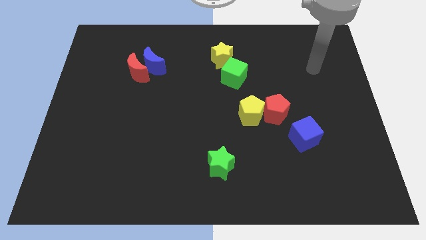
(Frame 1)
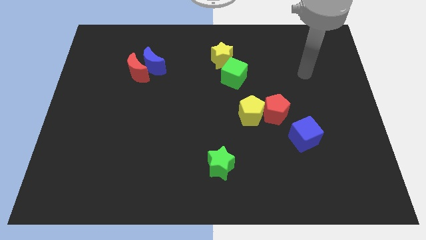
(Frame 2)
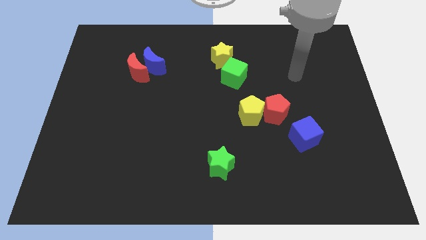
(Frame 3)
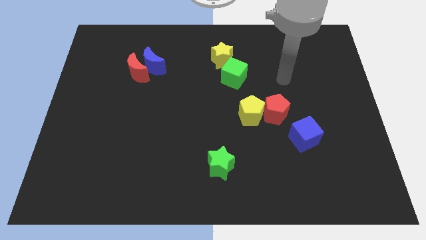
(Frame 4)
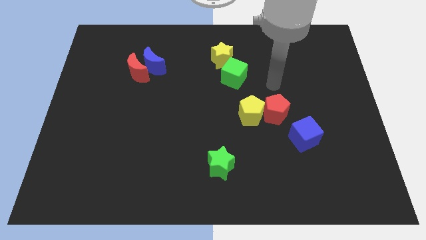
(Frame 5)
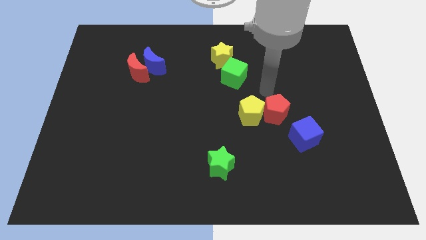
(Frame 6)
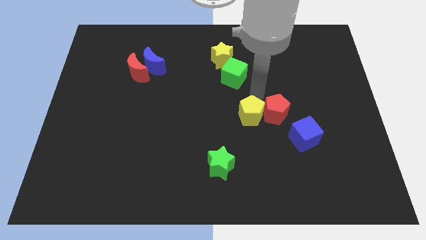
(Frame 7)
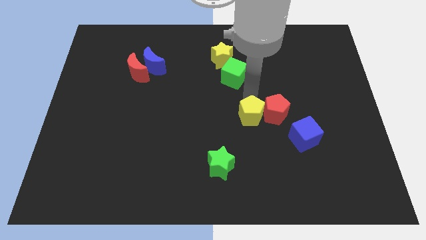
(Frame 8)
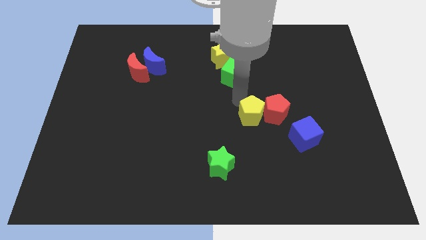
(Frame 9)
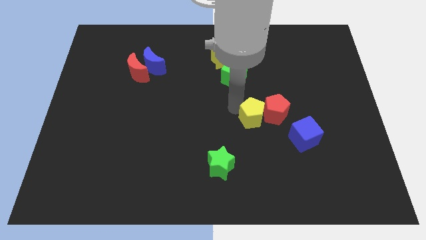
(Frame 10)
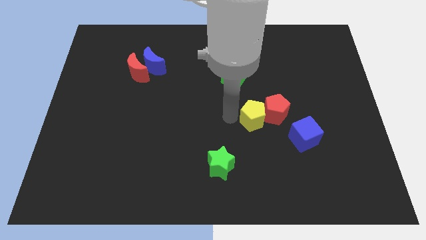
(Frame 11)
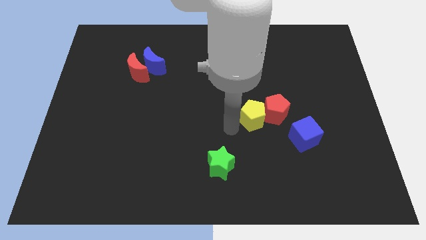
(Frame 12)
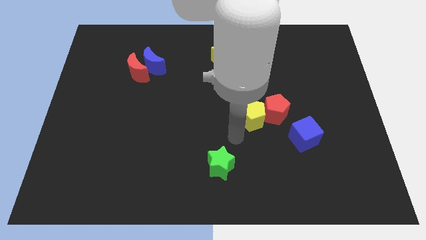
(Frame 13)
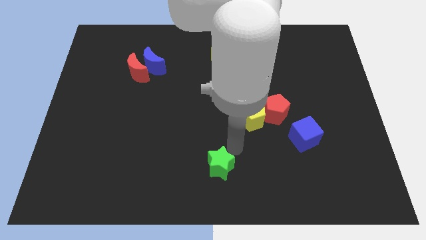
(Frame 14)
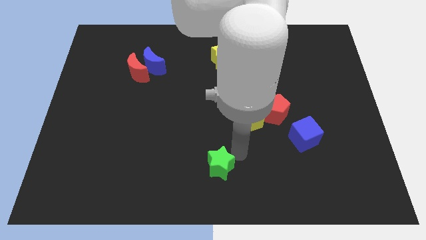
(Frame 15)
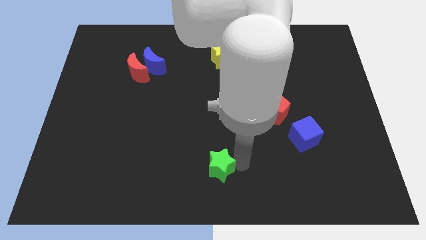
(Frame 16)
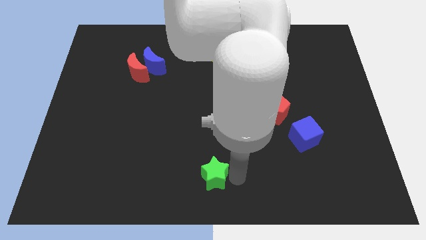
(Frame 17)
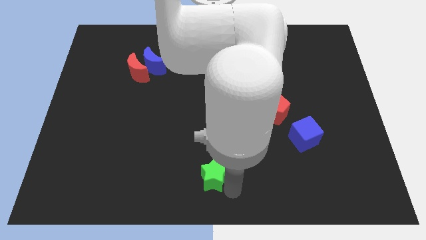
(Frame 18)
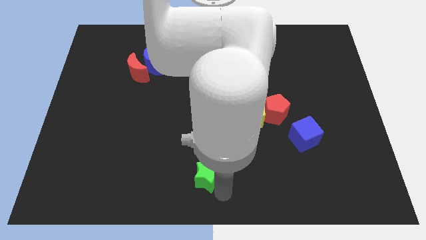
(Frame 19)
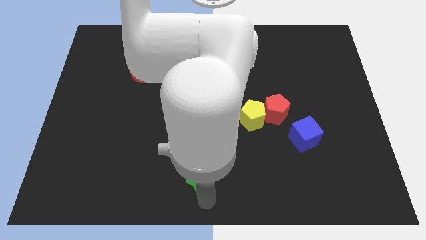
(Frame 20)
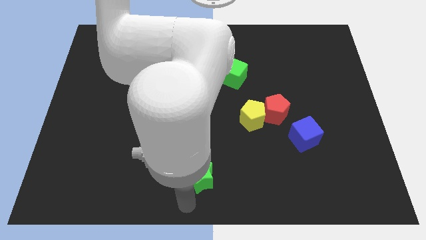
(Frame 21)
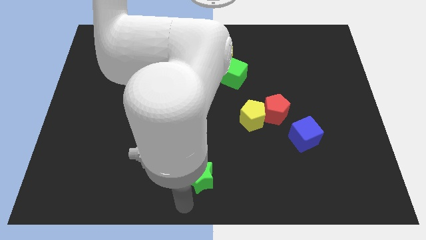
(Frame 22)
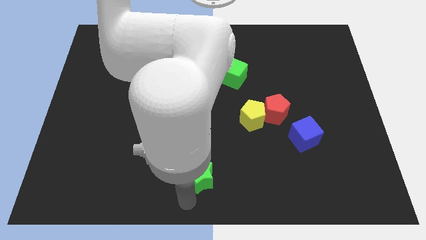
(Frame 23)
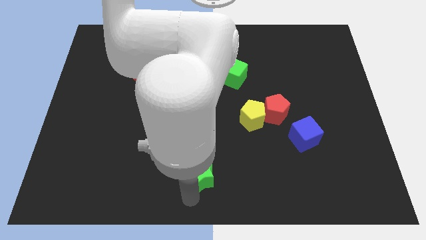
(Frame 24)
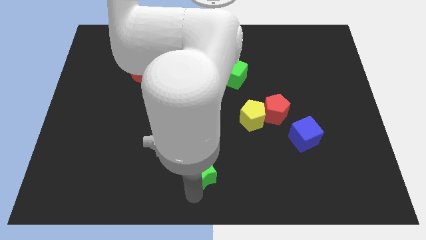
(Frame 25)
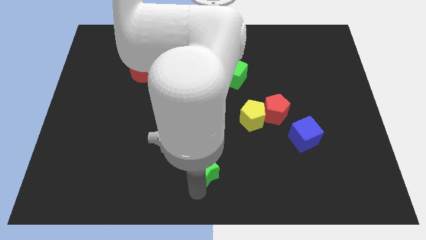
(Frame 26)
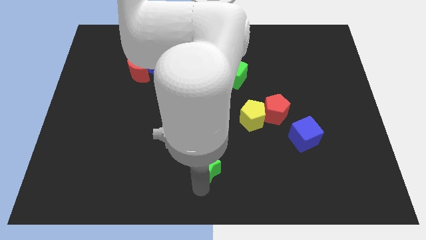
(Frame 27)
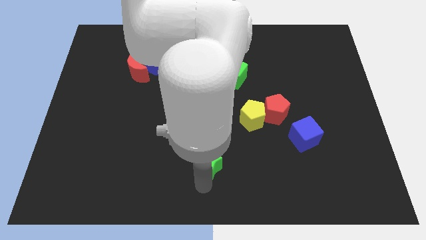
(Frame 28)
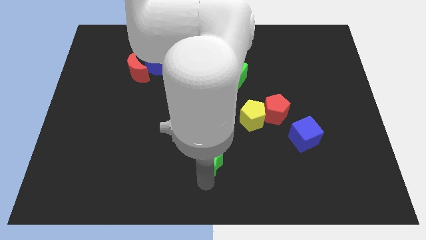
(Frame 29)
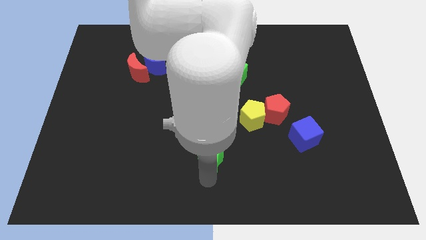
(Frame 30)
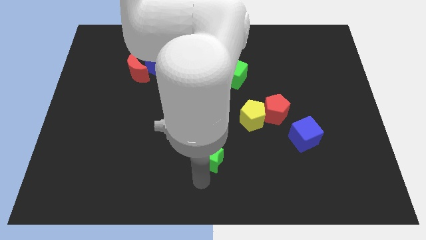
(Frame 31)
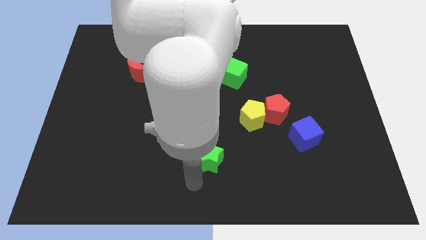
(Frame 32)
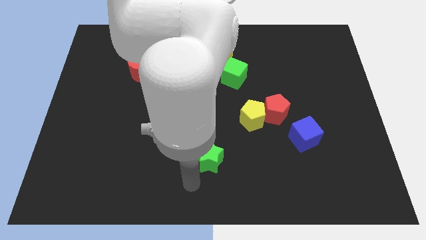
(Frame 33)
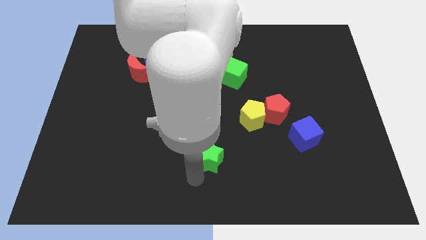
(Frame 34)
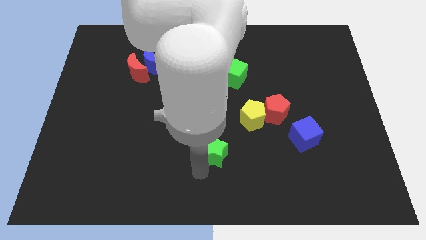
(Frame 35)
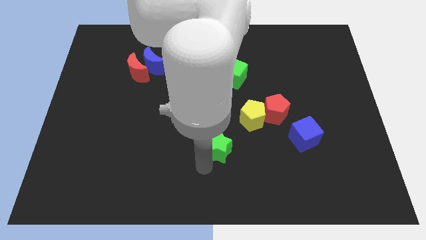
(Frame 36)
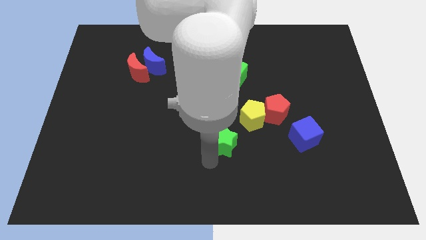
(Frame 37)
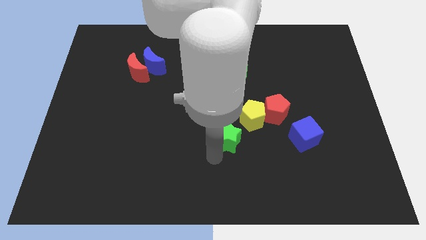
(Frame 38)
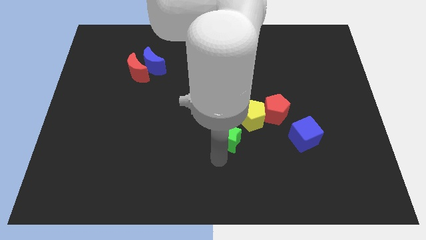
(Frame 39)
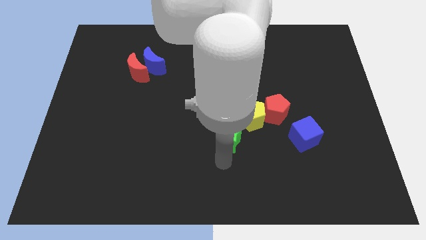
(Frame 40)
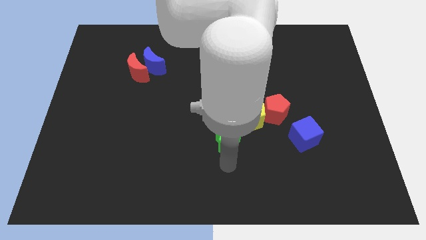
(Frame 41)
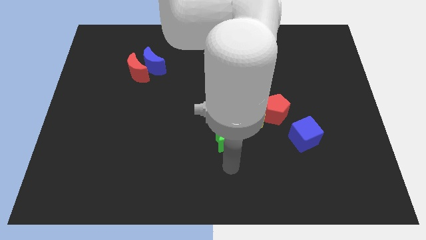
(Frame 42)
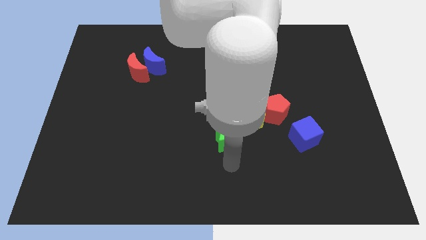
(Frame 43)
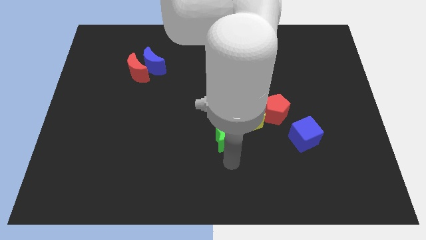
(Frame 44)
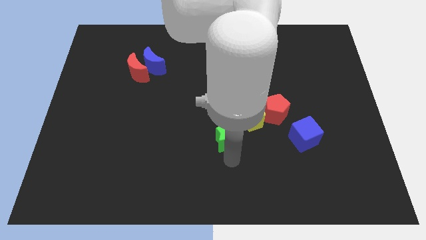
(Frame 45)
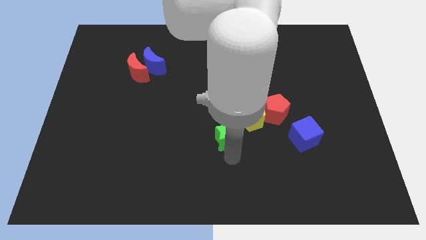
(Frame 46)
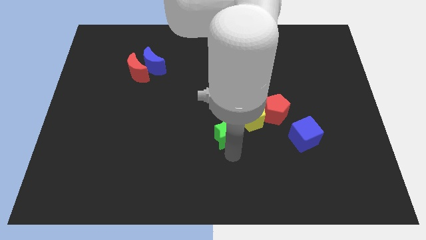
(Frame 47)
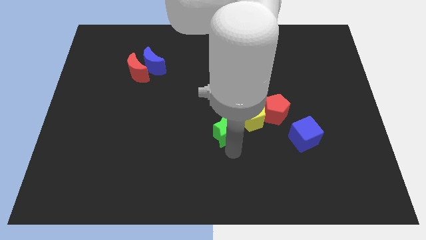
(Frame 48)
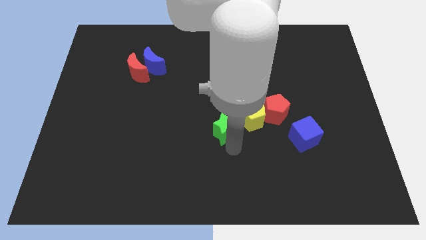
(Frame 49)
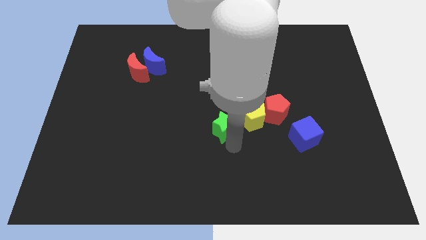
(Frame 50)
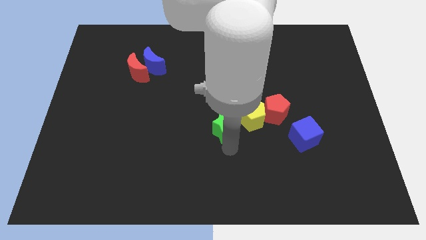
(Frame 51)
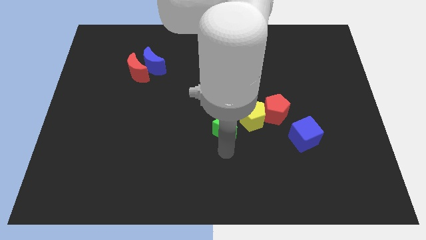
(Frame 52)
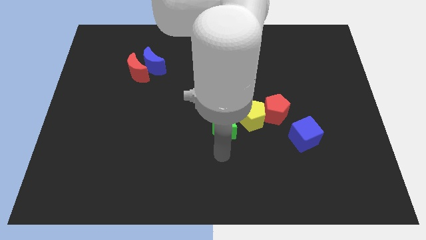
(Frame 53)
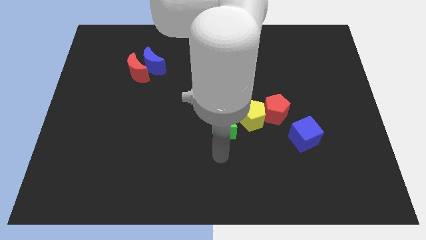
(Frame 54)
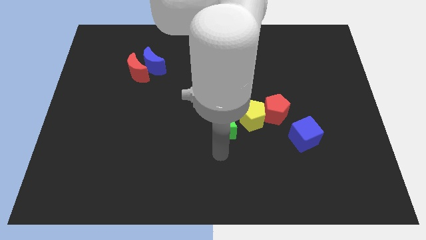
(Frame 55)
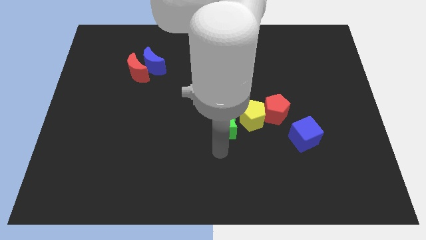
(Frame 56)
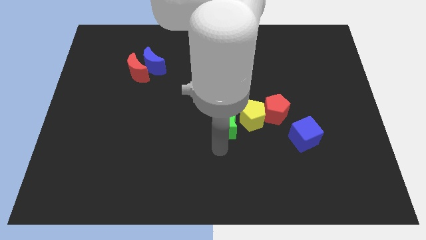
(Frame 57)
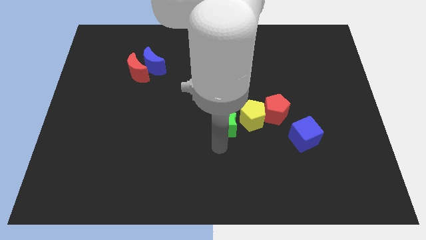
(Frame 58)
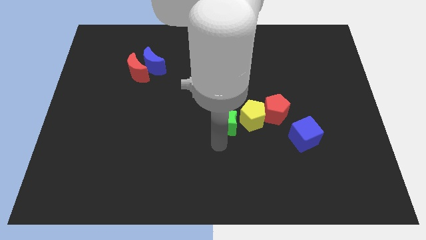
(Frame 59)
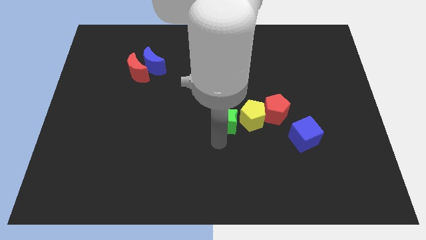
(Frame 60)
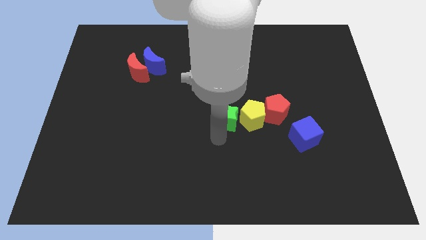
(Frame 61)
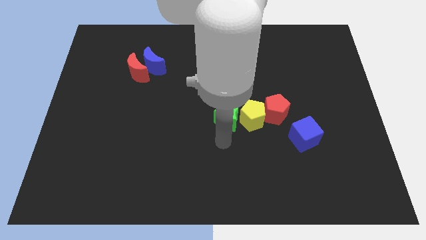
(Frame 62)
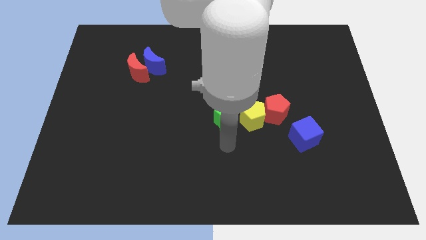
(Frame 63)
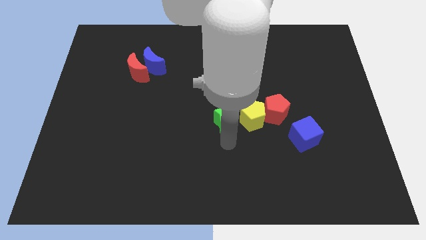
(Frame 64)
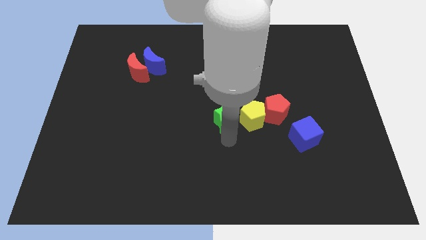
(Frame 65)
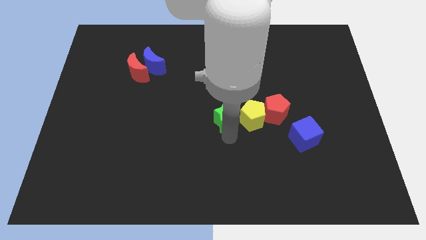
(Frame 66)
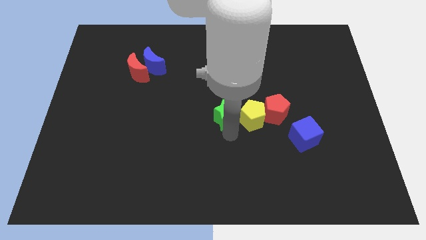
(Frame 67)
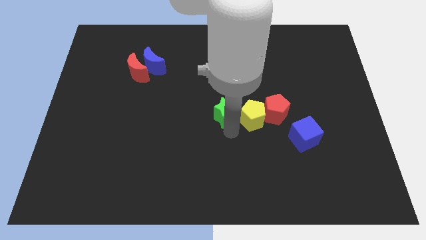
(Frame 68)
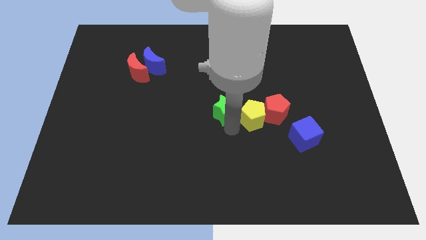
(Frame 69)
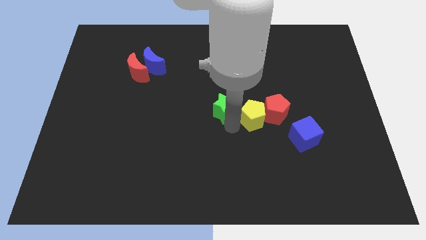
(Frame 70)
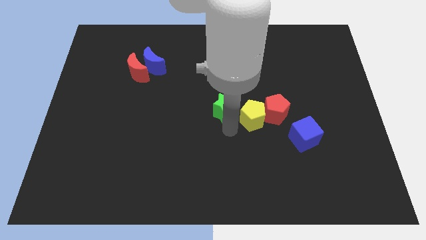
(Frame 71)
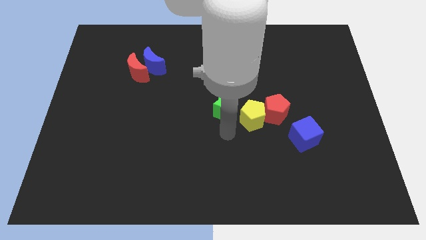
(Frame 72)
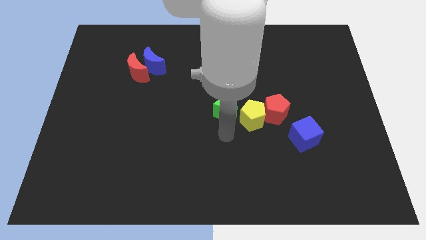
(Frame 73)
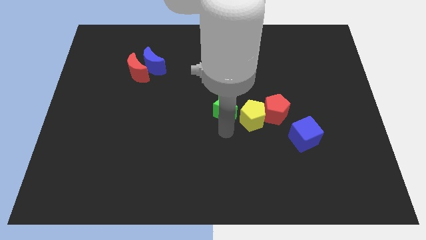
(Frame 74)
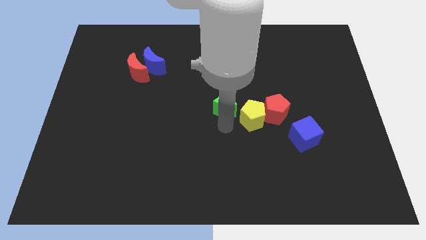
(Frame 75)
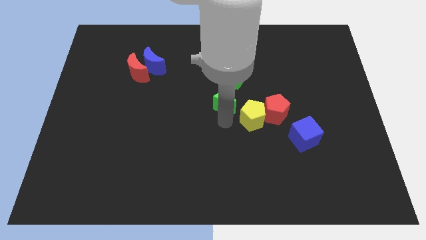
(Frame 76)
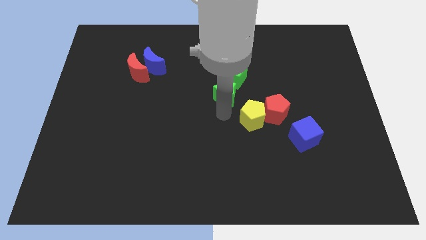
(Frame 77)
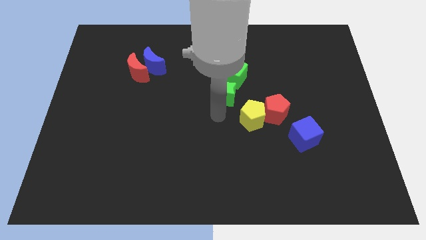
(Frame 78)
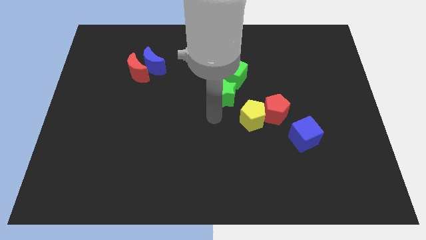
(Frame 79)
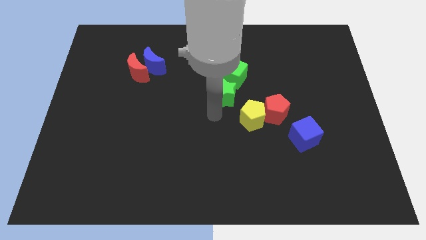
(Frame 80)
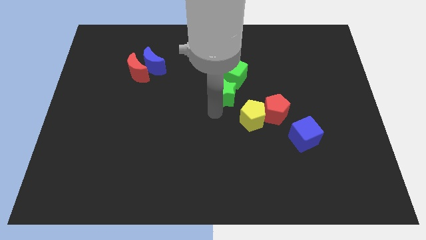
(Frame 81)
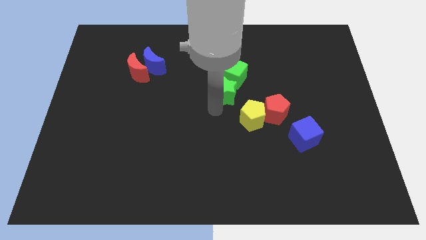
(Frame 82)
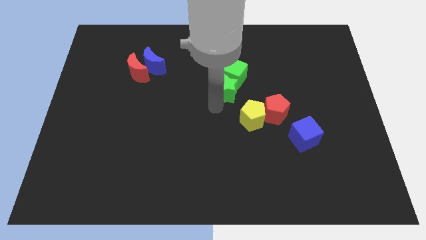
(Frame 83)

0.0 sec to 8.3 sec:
slide the green star close to the green cube
